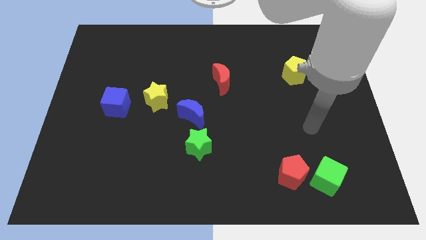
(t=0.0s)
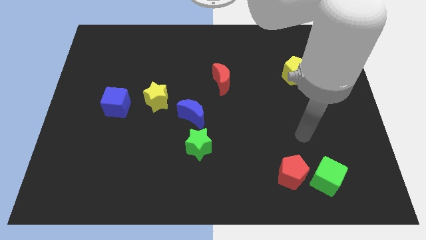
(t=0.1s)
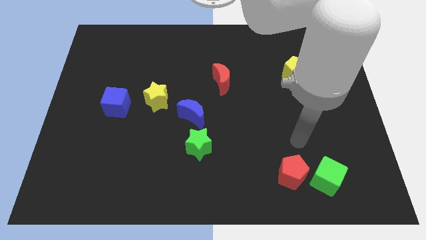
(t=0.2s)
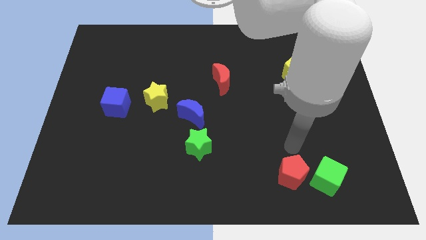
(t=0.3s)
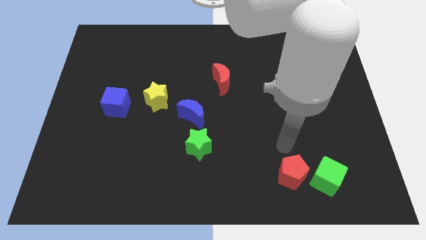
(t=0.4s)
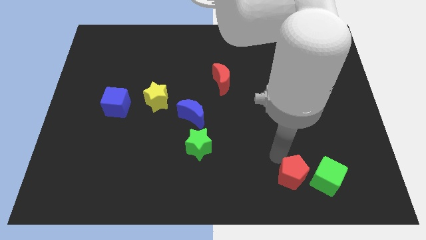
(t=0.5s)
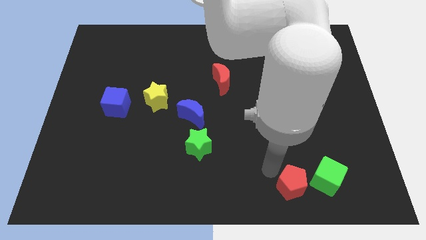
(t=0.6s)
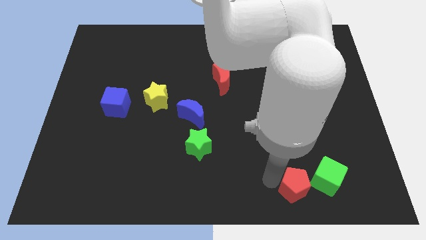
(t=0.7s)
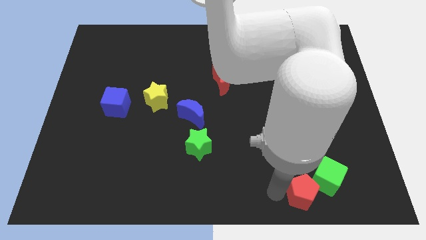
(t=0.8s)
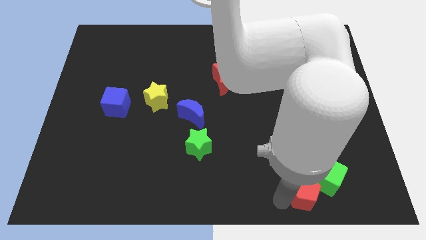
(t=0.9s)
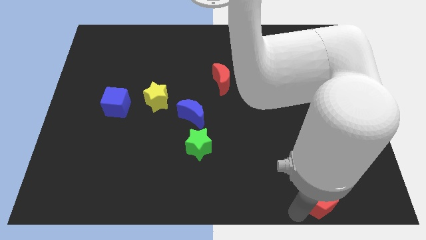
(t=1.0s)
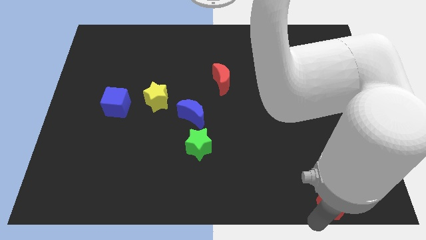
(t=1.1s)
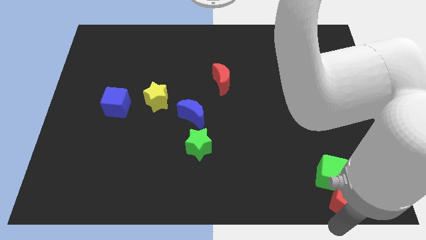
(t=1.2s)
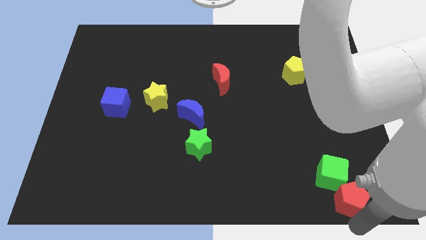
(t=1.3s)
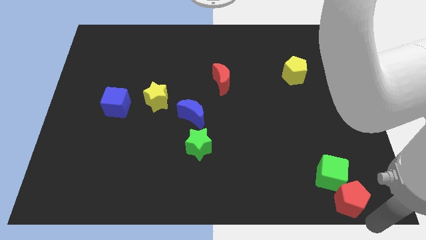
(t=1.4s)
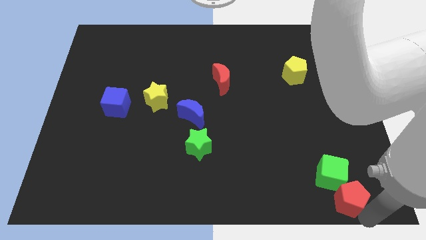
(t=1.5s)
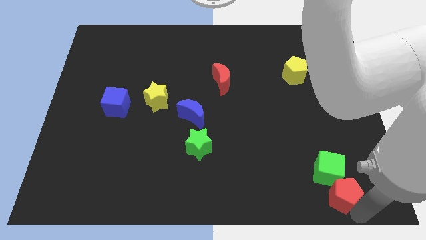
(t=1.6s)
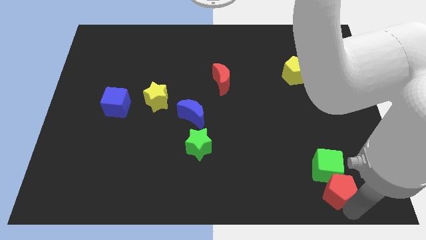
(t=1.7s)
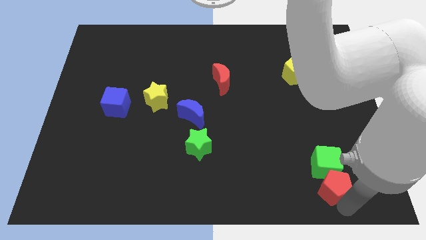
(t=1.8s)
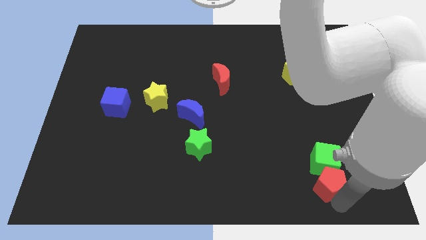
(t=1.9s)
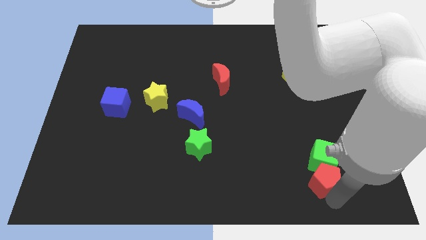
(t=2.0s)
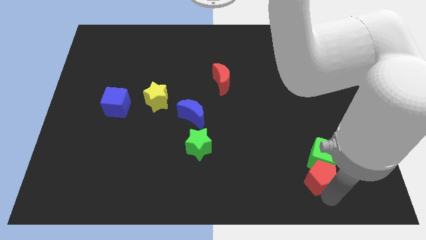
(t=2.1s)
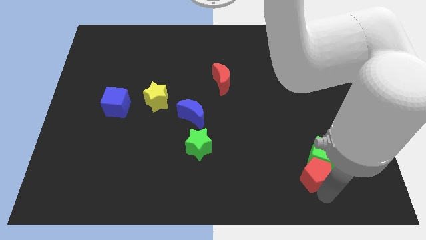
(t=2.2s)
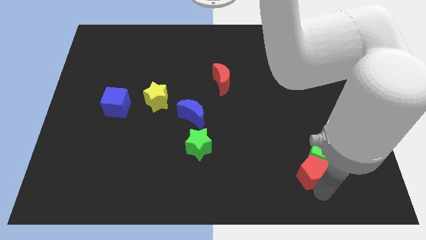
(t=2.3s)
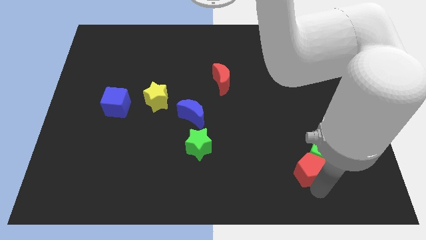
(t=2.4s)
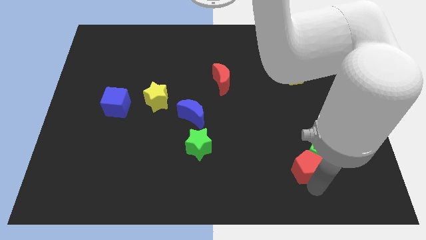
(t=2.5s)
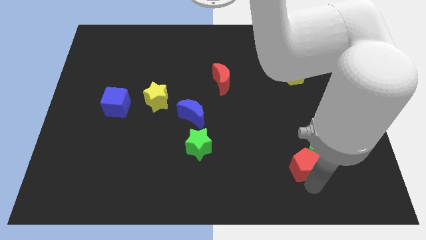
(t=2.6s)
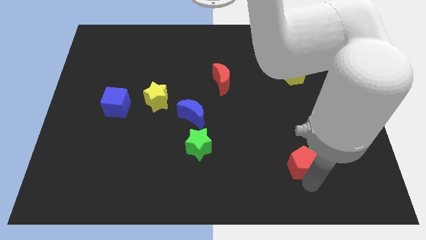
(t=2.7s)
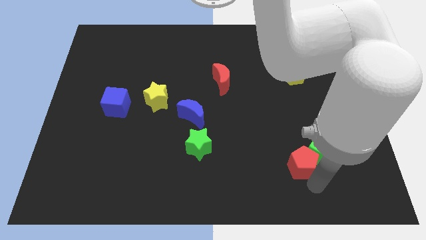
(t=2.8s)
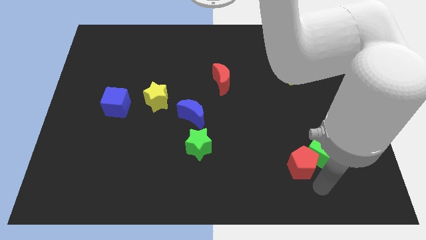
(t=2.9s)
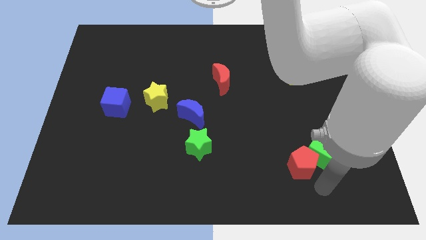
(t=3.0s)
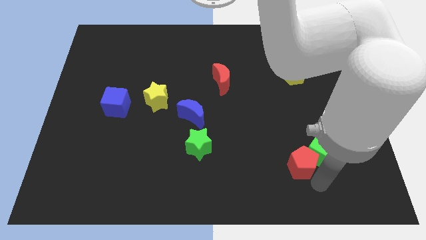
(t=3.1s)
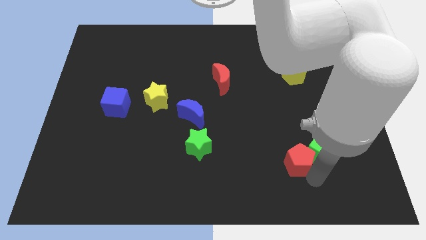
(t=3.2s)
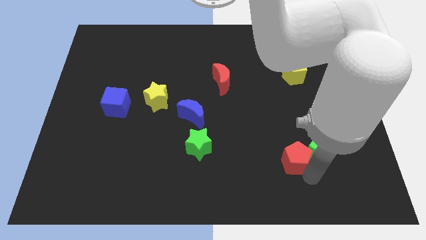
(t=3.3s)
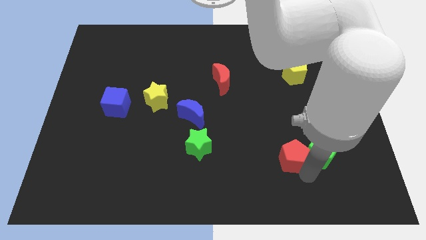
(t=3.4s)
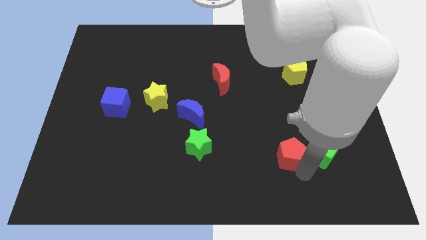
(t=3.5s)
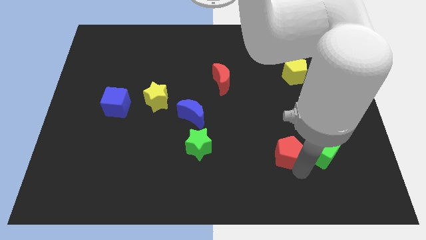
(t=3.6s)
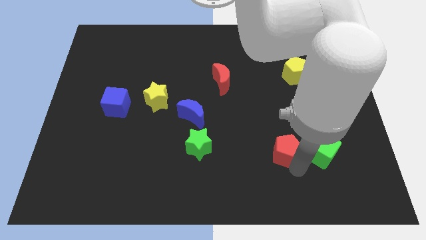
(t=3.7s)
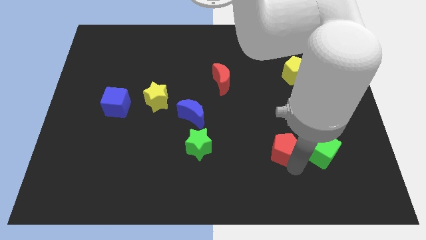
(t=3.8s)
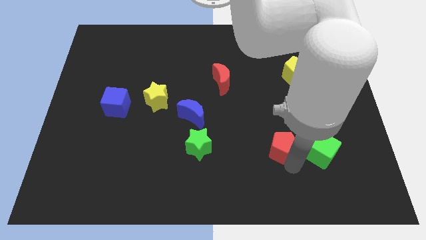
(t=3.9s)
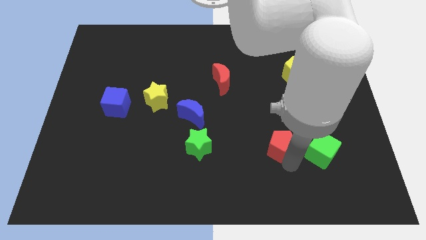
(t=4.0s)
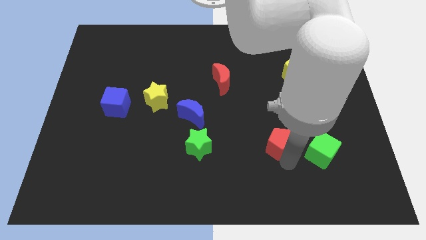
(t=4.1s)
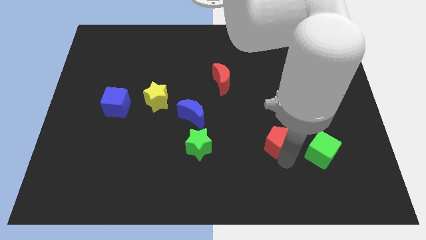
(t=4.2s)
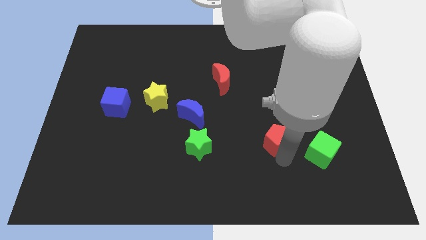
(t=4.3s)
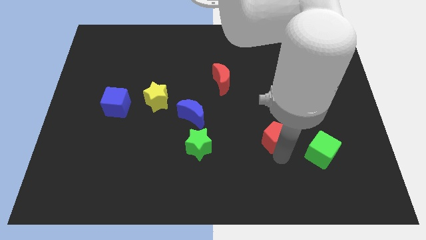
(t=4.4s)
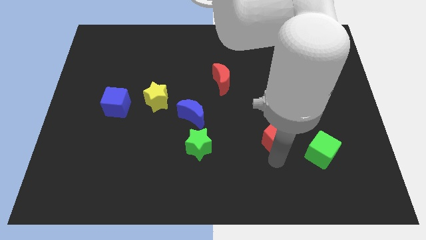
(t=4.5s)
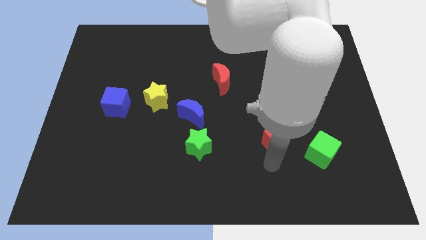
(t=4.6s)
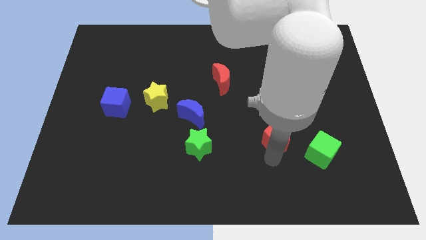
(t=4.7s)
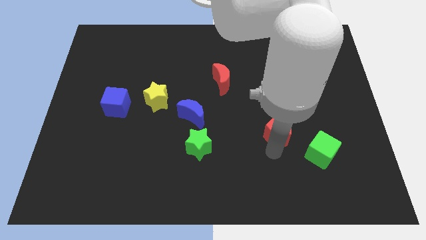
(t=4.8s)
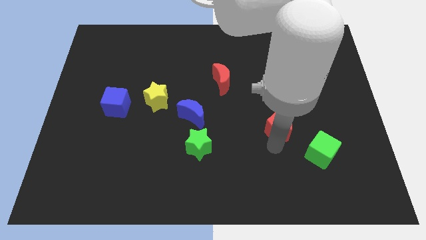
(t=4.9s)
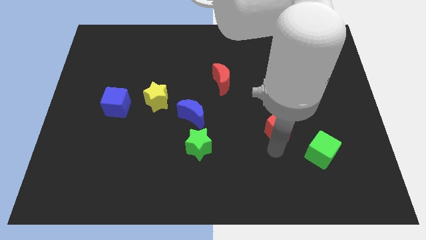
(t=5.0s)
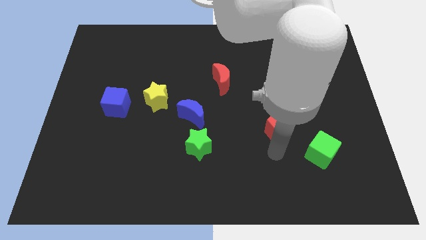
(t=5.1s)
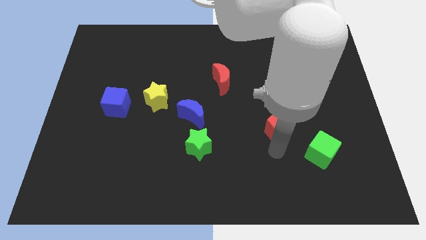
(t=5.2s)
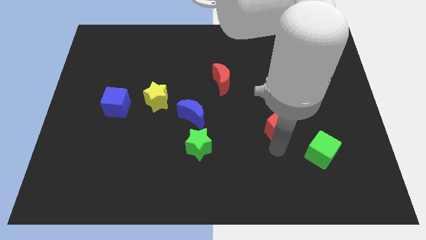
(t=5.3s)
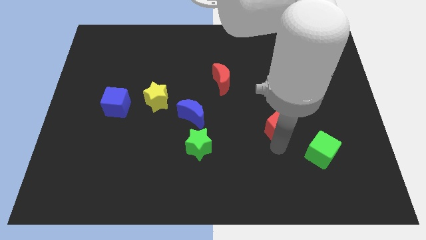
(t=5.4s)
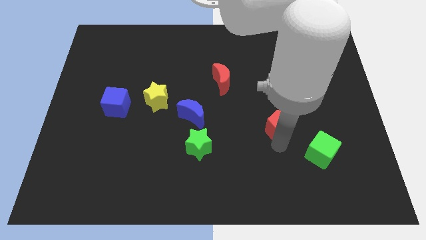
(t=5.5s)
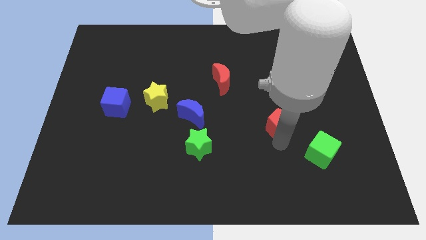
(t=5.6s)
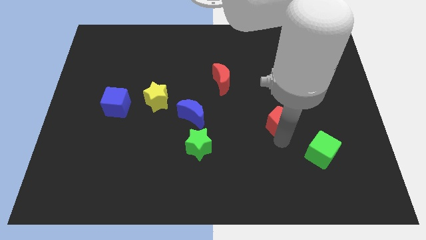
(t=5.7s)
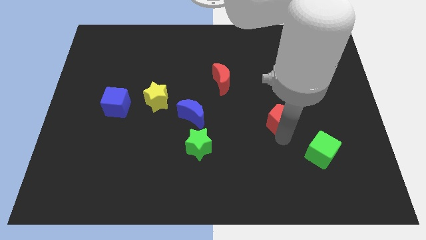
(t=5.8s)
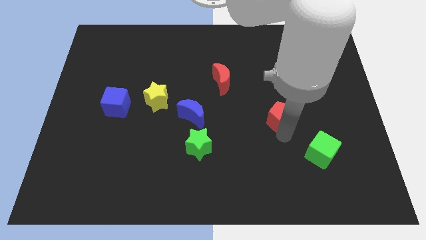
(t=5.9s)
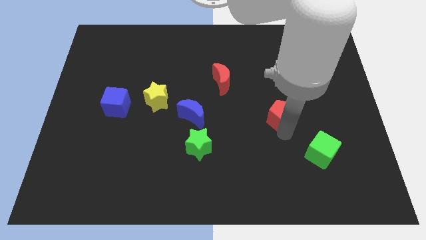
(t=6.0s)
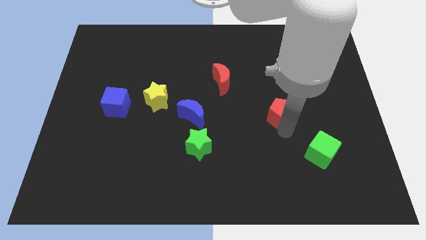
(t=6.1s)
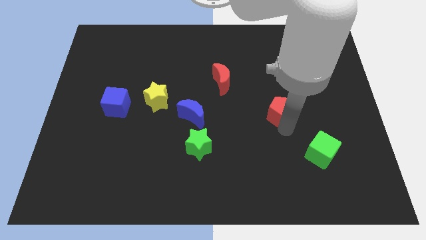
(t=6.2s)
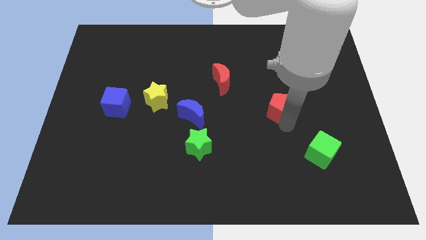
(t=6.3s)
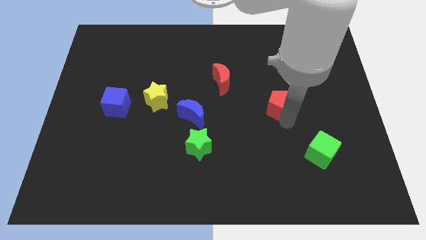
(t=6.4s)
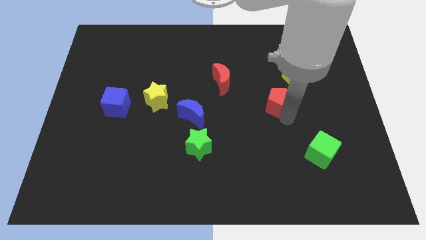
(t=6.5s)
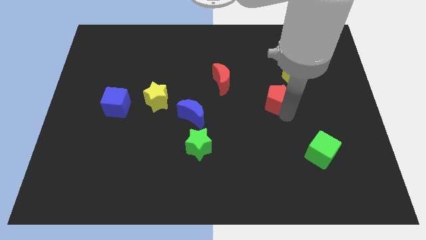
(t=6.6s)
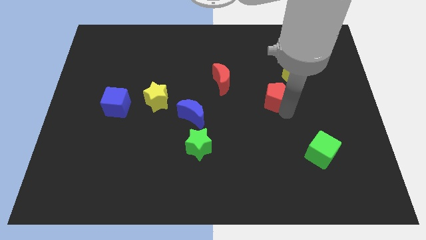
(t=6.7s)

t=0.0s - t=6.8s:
push the red pentagon upwards

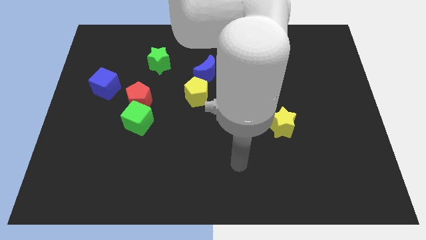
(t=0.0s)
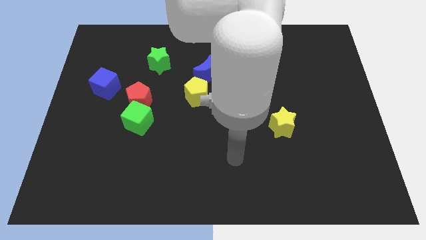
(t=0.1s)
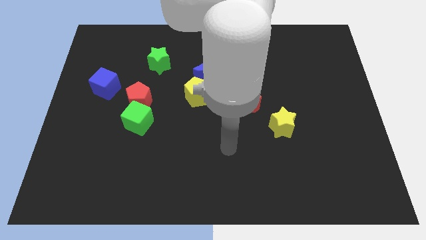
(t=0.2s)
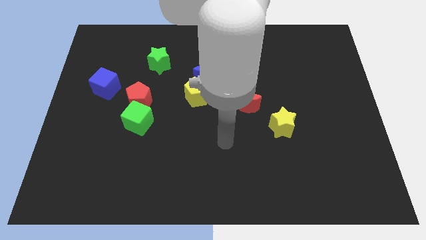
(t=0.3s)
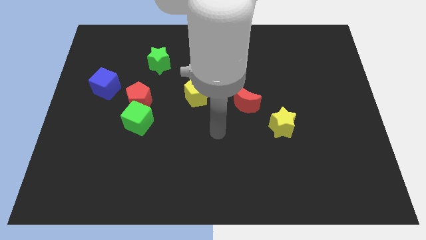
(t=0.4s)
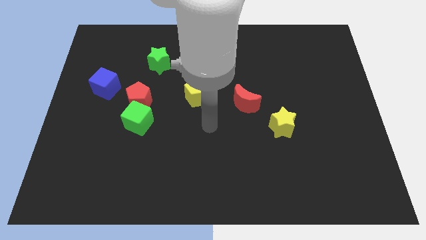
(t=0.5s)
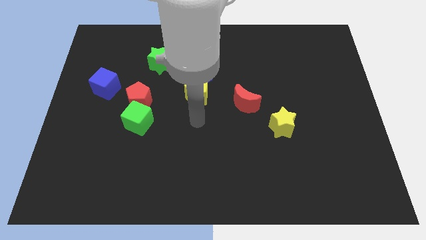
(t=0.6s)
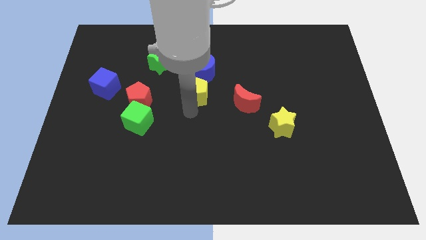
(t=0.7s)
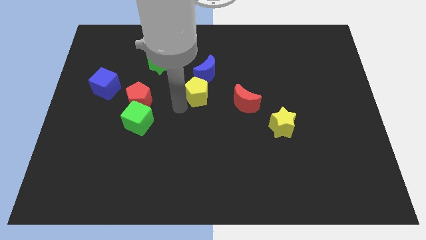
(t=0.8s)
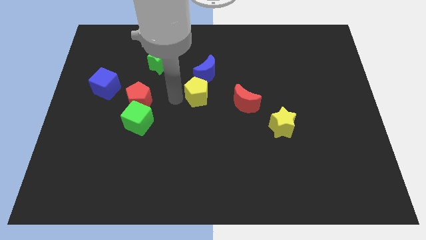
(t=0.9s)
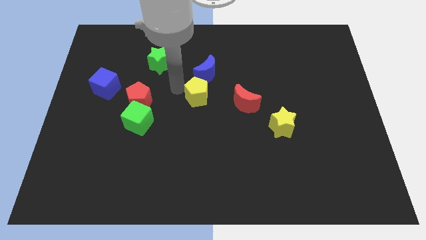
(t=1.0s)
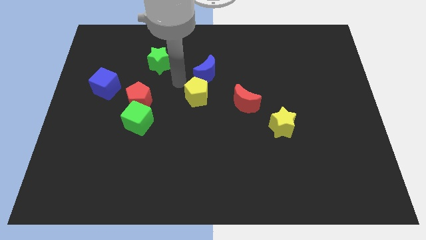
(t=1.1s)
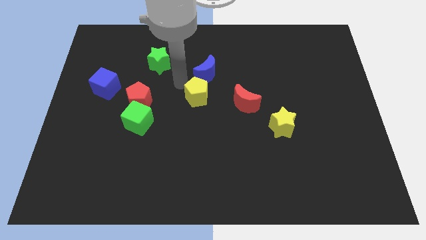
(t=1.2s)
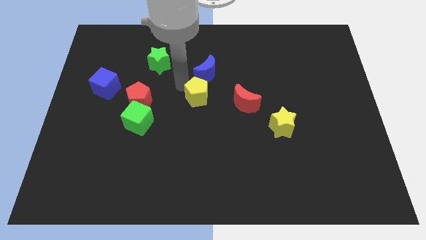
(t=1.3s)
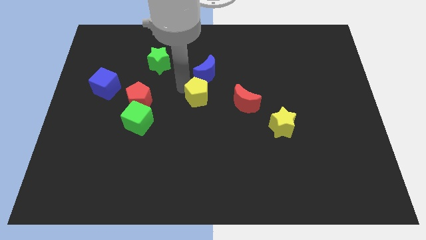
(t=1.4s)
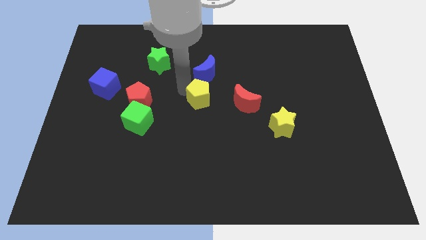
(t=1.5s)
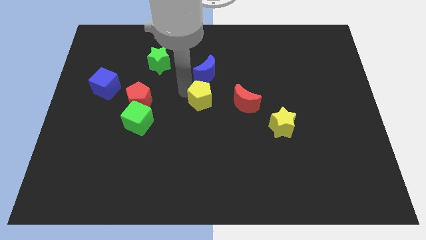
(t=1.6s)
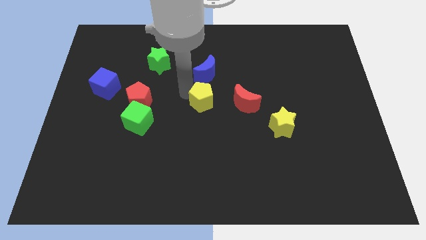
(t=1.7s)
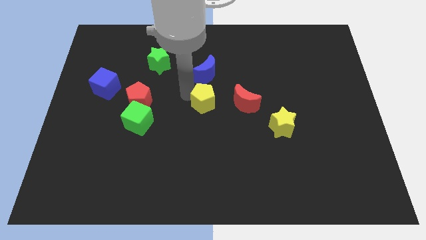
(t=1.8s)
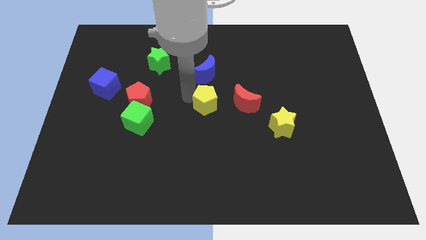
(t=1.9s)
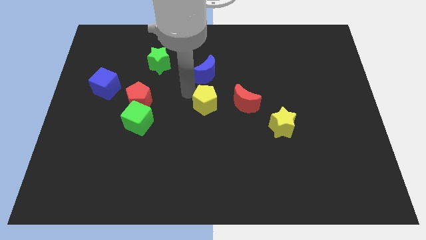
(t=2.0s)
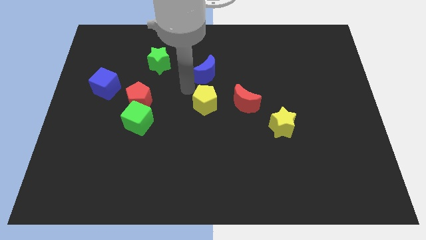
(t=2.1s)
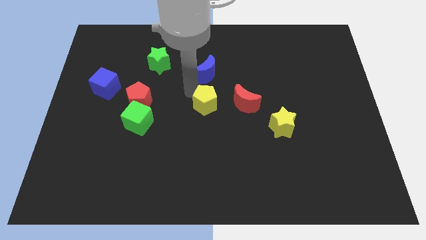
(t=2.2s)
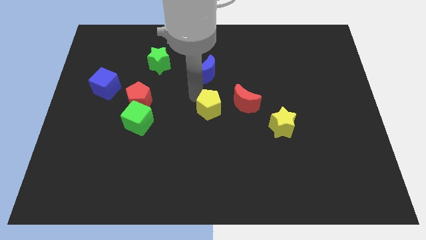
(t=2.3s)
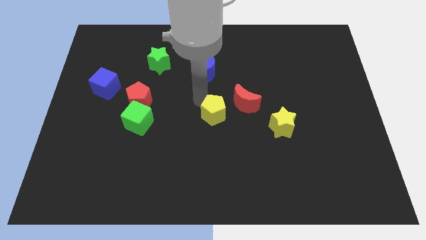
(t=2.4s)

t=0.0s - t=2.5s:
slide the yellow pentagon somewhat down and then to the right
